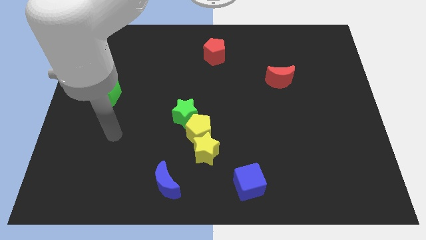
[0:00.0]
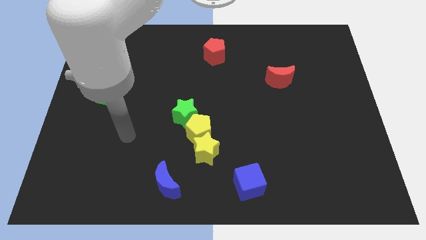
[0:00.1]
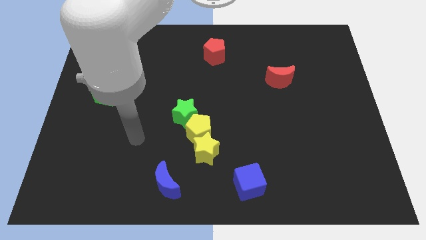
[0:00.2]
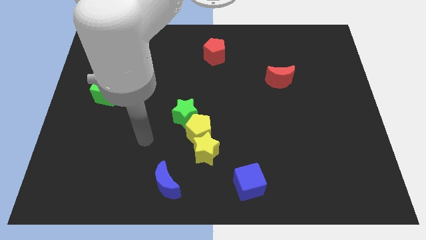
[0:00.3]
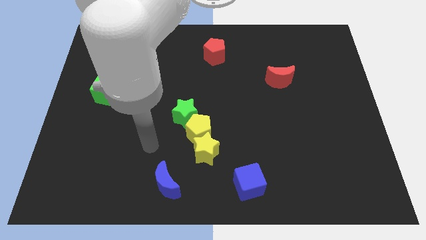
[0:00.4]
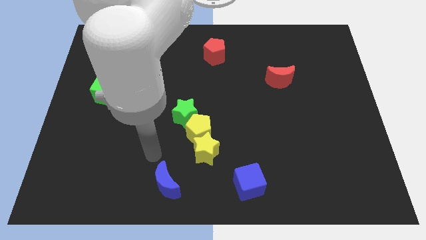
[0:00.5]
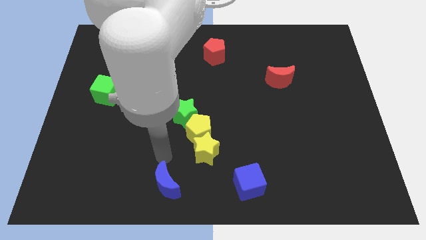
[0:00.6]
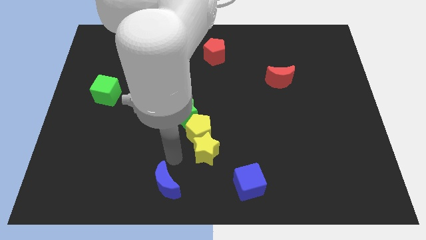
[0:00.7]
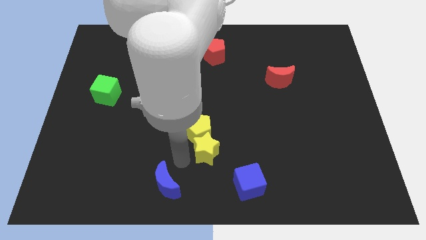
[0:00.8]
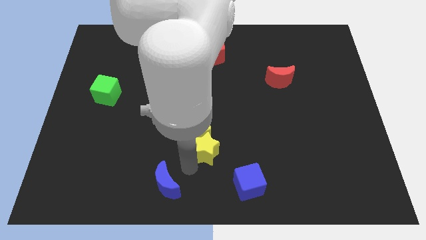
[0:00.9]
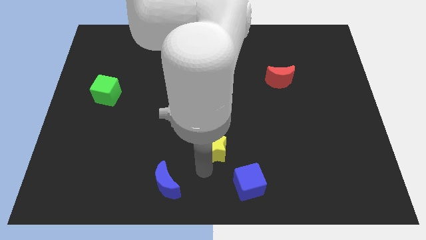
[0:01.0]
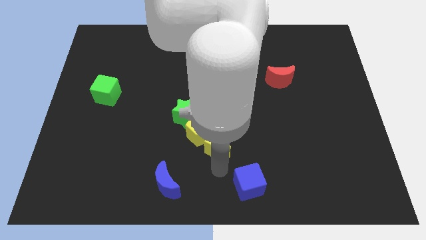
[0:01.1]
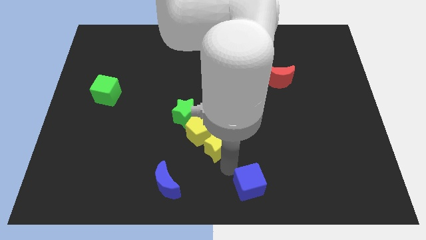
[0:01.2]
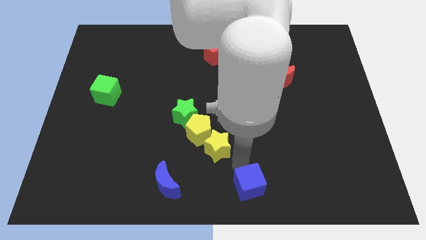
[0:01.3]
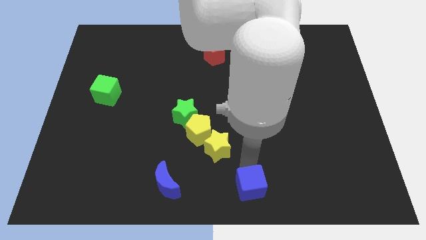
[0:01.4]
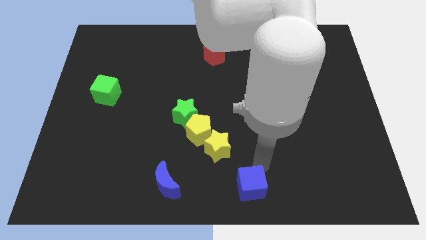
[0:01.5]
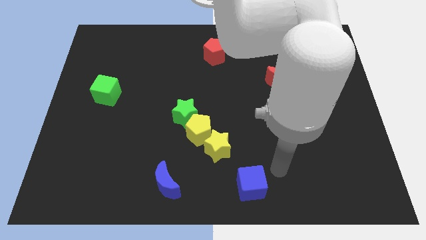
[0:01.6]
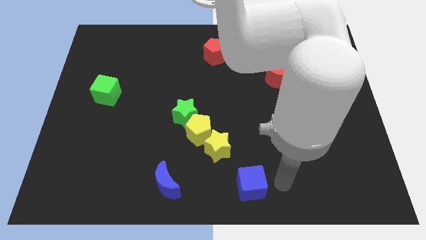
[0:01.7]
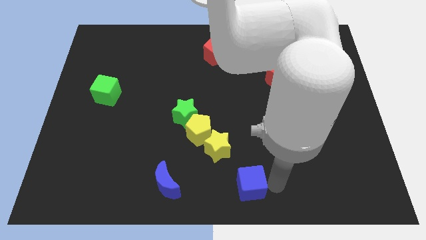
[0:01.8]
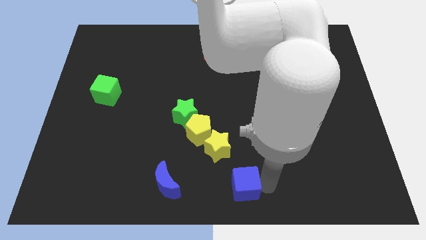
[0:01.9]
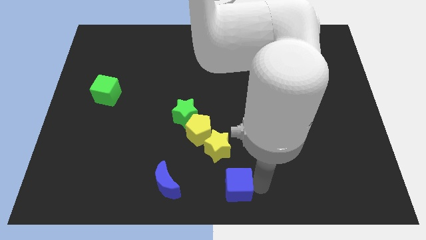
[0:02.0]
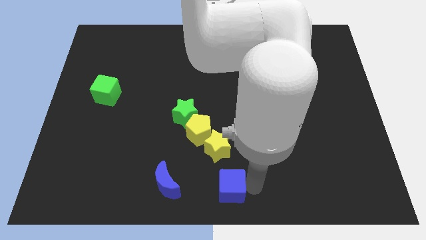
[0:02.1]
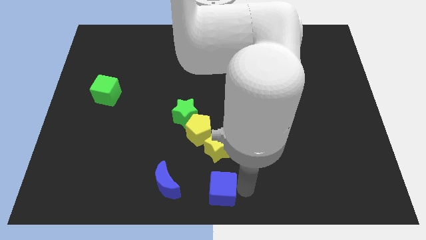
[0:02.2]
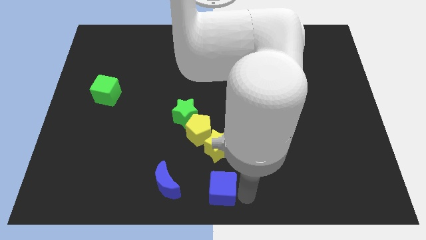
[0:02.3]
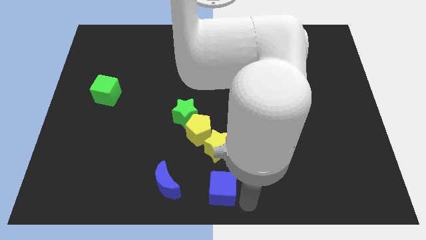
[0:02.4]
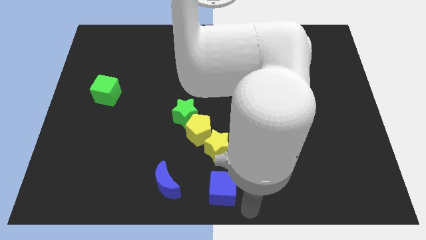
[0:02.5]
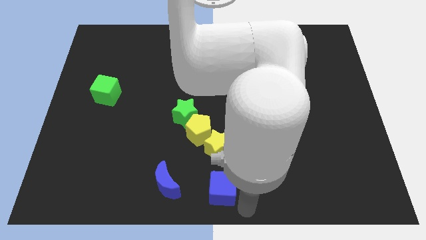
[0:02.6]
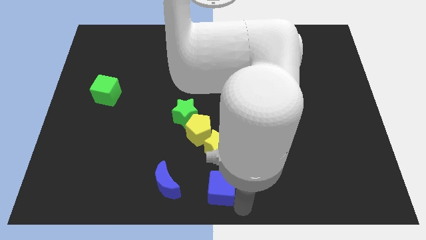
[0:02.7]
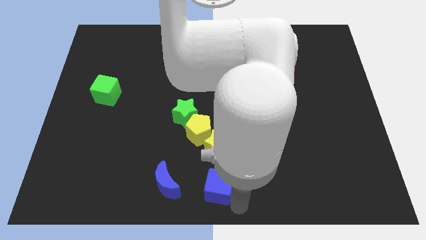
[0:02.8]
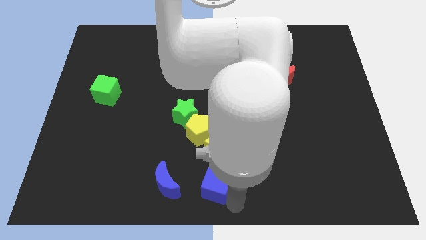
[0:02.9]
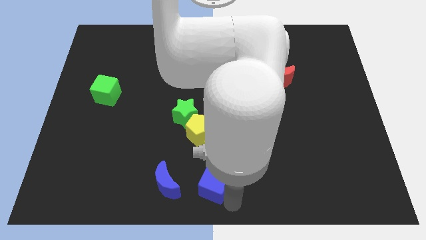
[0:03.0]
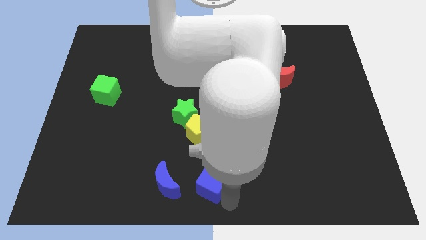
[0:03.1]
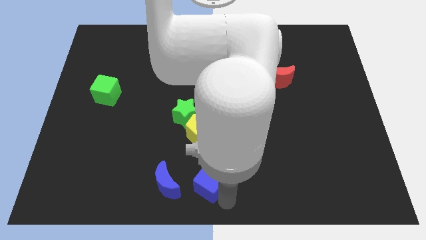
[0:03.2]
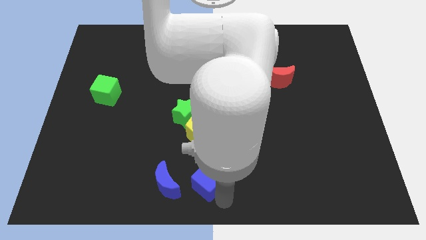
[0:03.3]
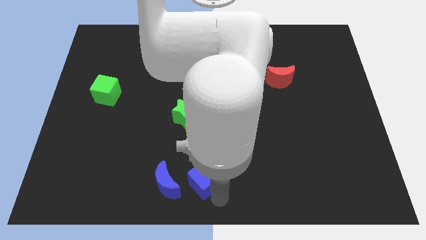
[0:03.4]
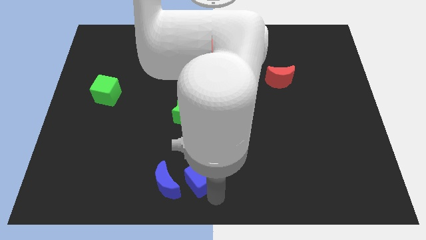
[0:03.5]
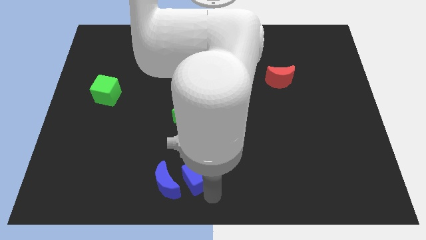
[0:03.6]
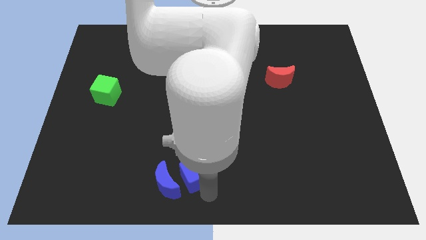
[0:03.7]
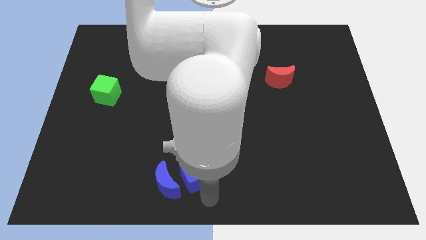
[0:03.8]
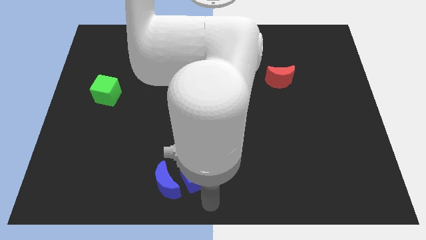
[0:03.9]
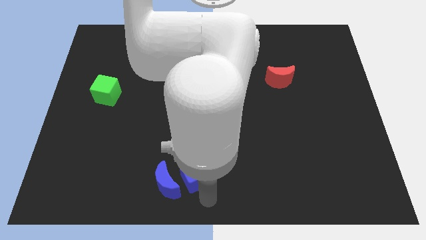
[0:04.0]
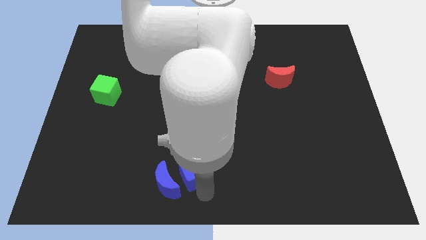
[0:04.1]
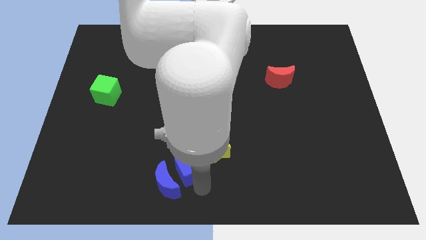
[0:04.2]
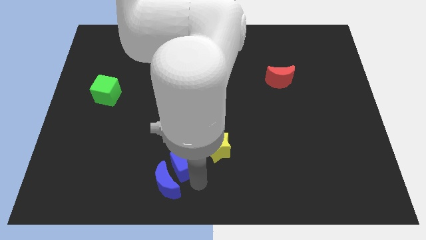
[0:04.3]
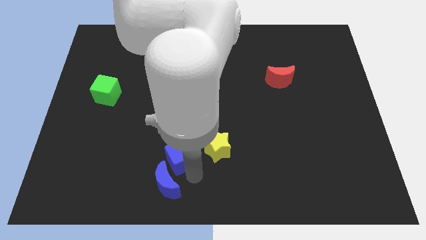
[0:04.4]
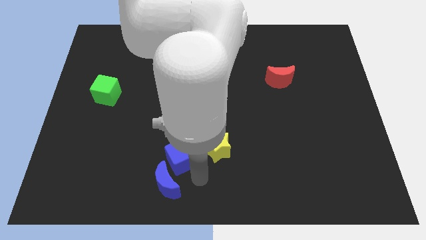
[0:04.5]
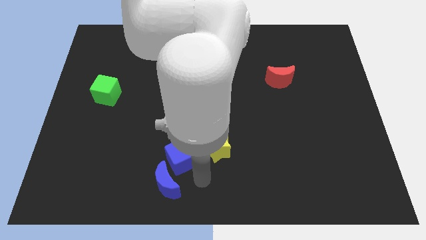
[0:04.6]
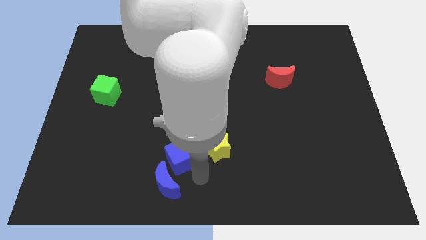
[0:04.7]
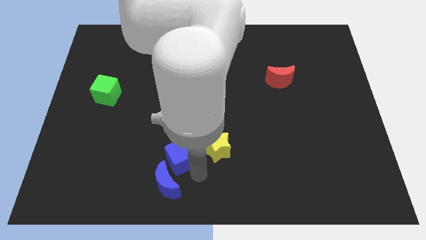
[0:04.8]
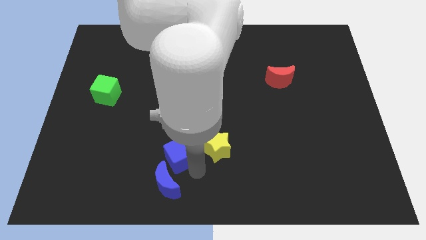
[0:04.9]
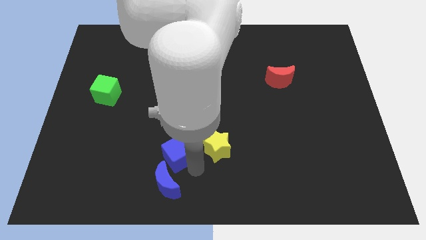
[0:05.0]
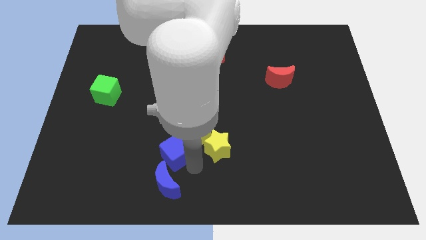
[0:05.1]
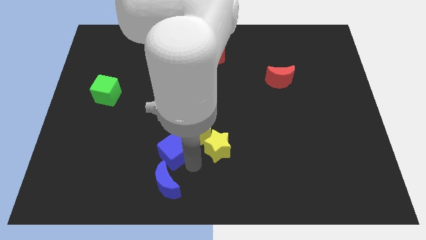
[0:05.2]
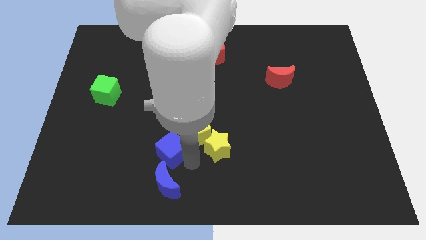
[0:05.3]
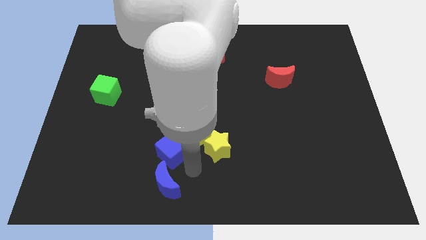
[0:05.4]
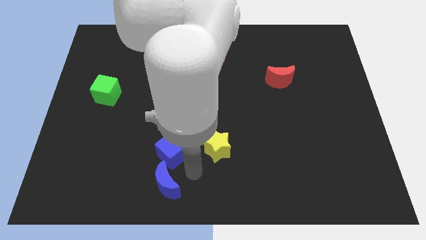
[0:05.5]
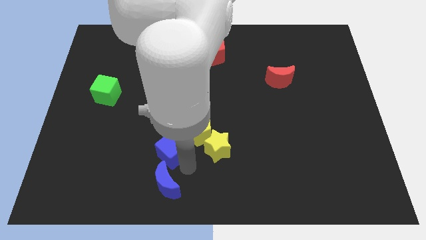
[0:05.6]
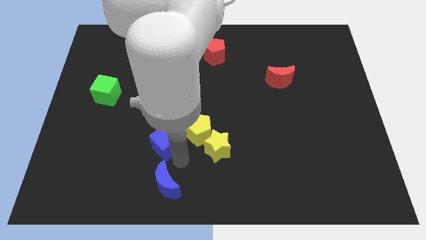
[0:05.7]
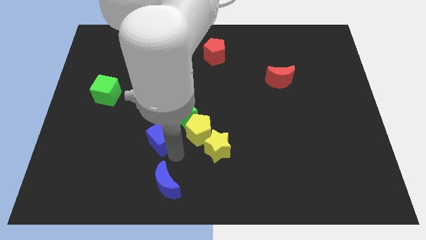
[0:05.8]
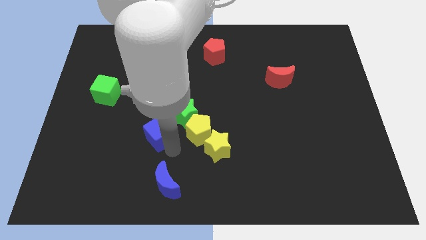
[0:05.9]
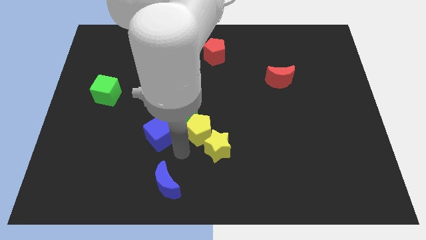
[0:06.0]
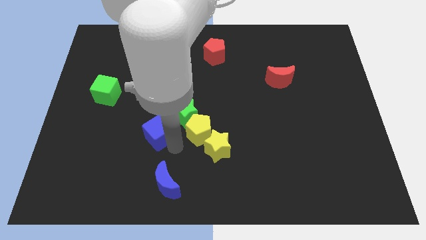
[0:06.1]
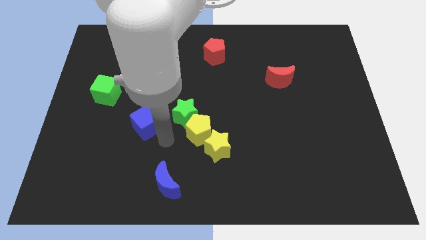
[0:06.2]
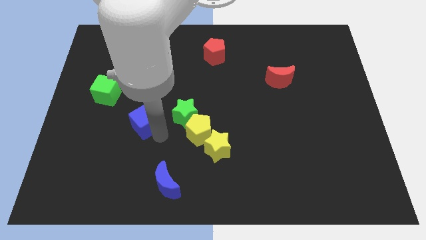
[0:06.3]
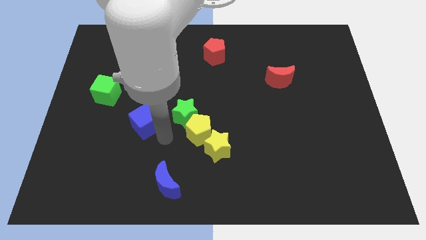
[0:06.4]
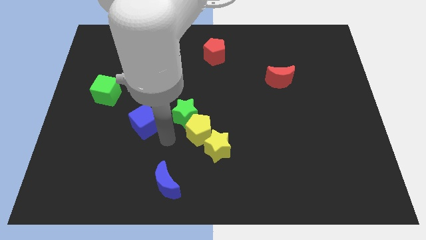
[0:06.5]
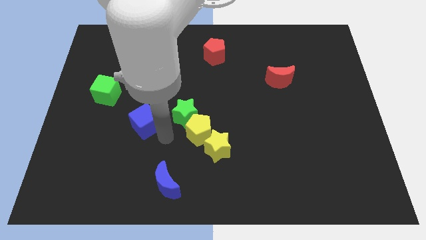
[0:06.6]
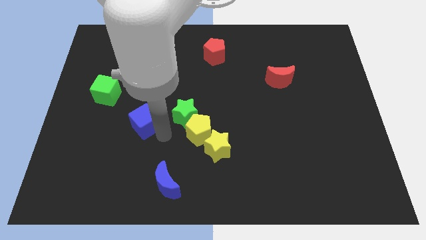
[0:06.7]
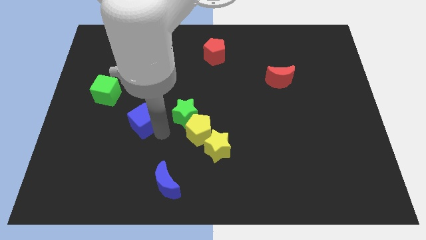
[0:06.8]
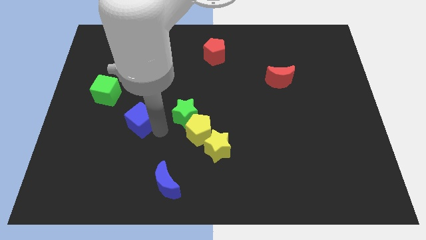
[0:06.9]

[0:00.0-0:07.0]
push the blue cube to the bottom right of the green cube
